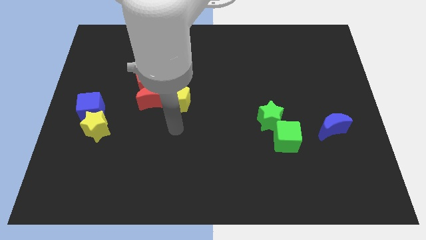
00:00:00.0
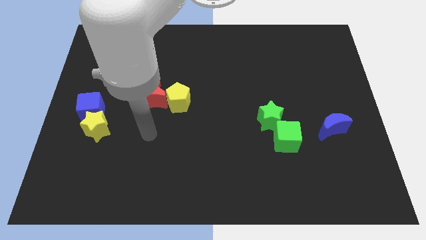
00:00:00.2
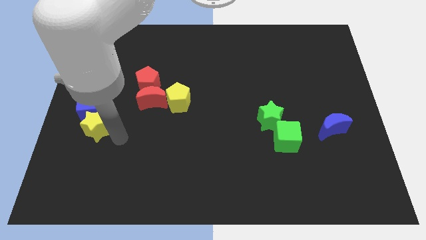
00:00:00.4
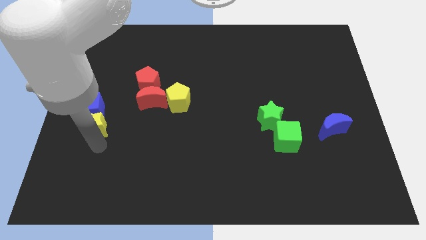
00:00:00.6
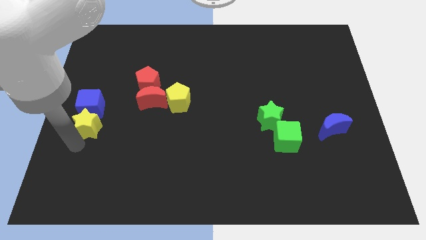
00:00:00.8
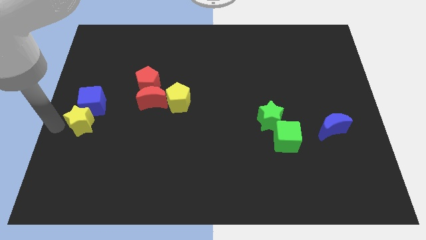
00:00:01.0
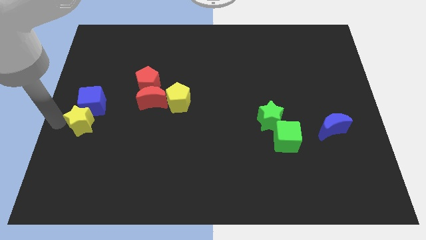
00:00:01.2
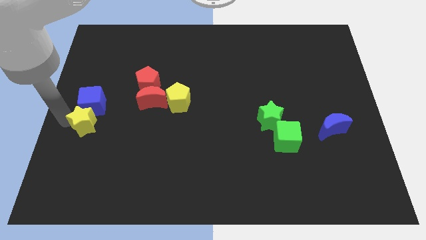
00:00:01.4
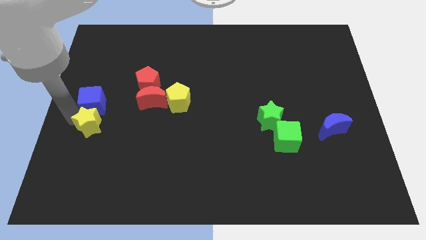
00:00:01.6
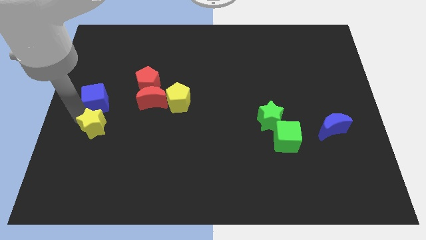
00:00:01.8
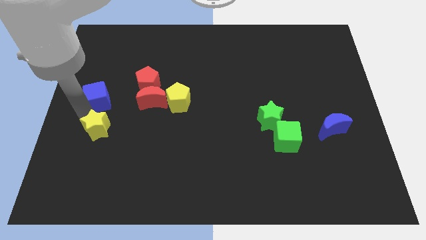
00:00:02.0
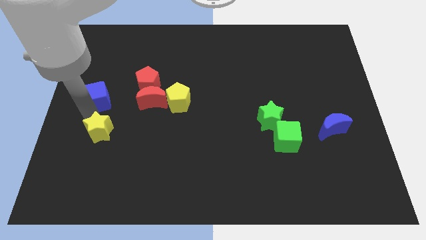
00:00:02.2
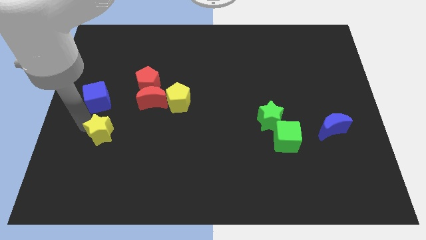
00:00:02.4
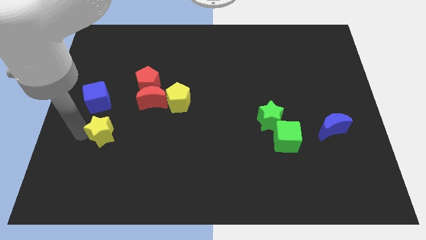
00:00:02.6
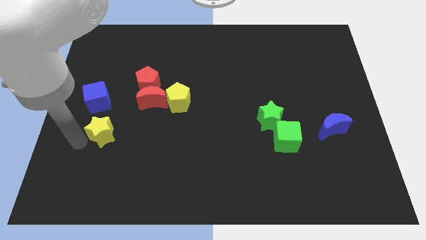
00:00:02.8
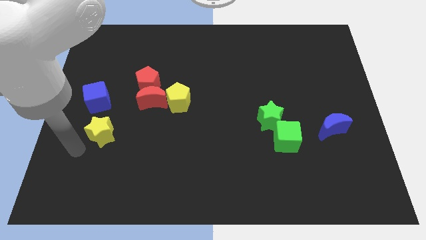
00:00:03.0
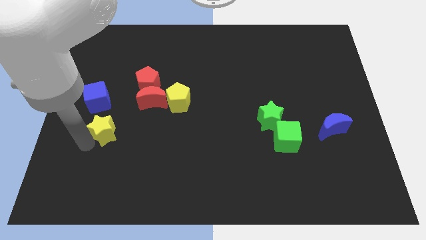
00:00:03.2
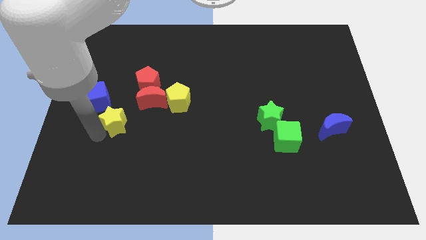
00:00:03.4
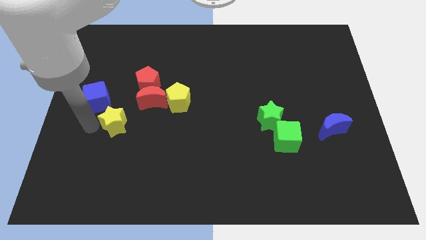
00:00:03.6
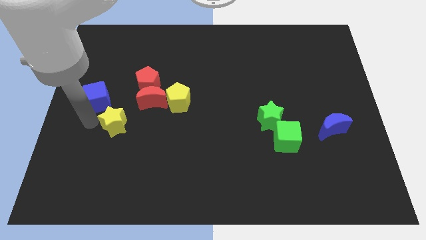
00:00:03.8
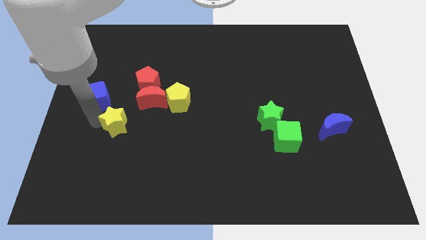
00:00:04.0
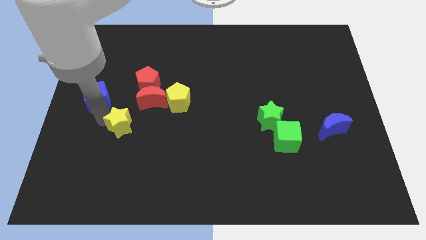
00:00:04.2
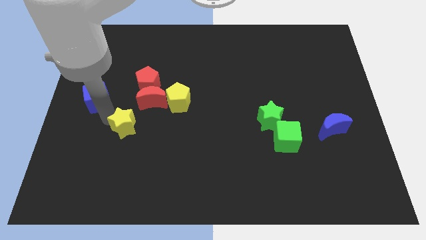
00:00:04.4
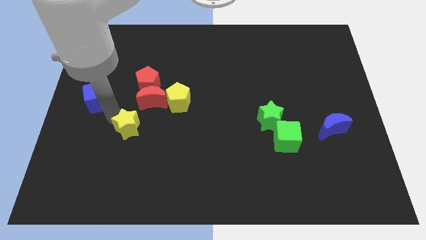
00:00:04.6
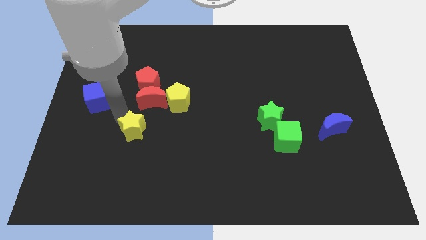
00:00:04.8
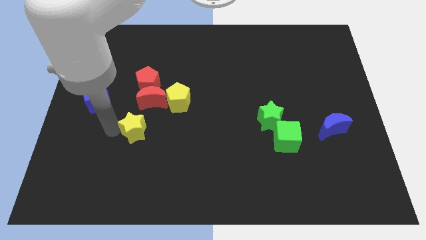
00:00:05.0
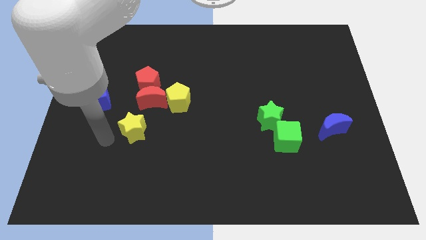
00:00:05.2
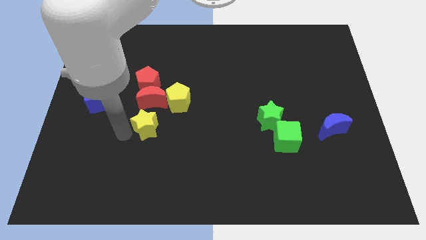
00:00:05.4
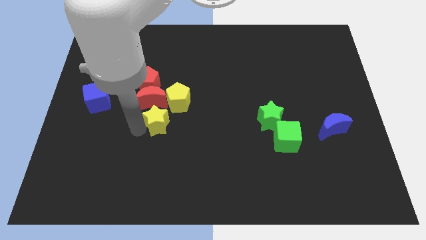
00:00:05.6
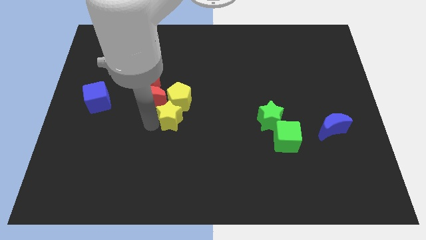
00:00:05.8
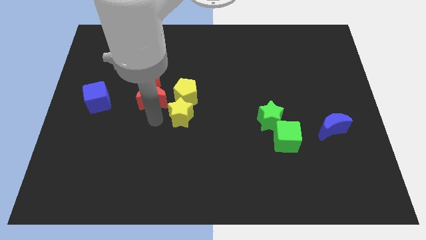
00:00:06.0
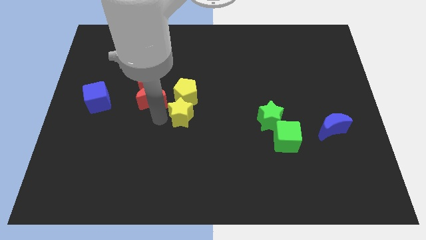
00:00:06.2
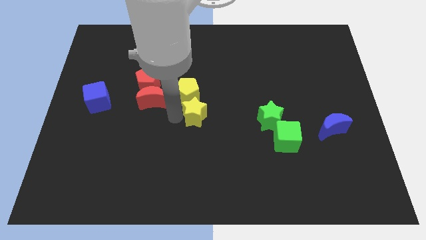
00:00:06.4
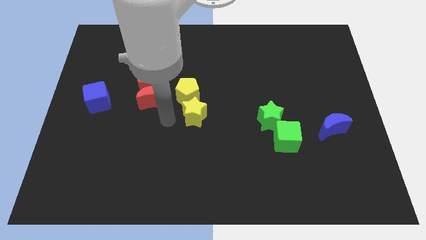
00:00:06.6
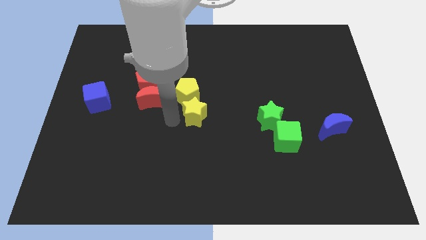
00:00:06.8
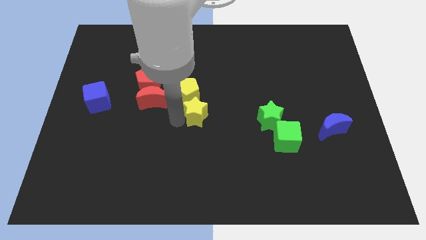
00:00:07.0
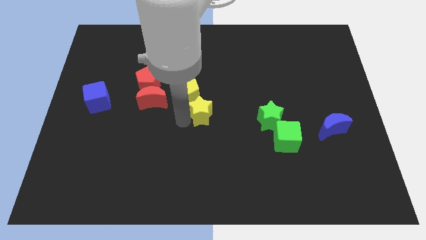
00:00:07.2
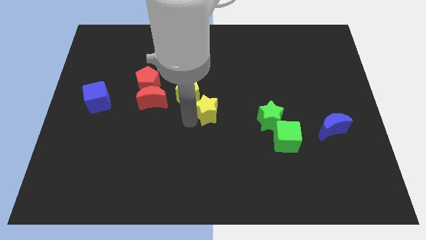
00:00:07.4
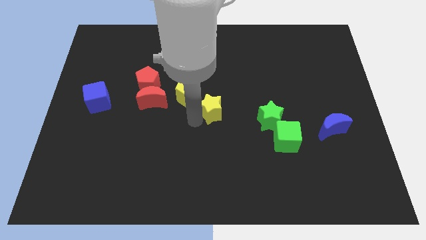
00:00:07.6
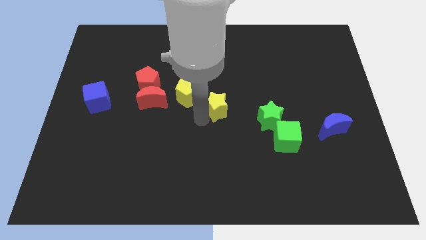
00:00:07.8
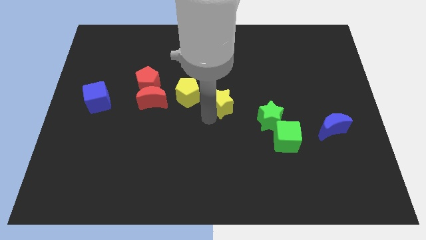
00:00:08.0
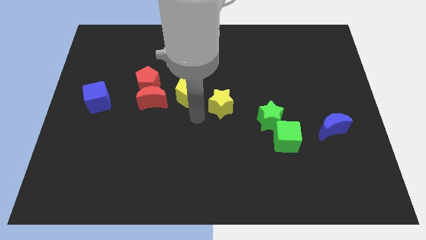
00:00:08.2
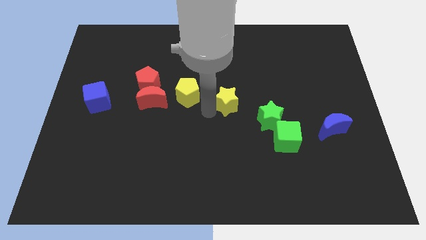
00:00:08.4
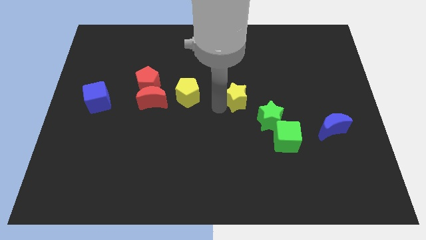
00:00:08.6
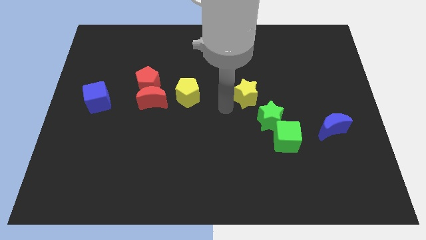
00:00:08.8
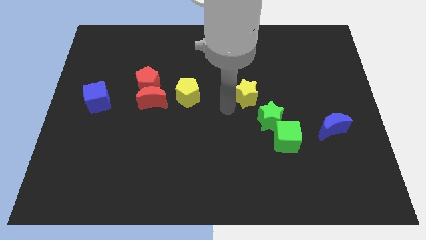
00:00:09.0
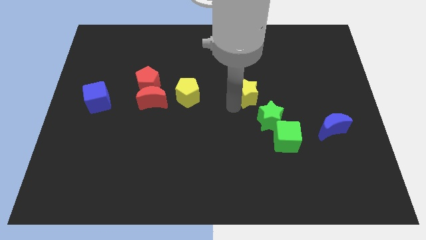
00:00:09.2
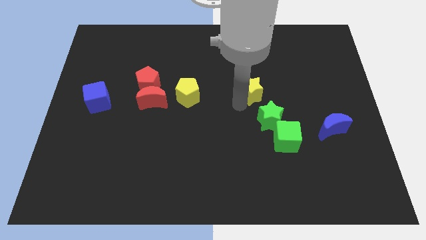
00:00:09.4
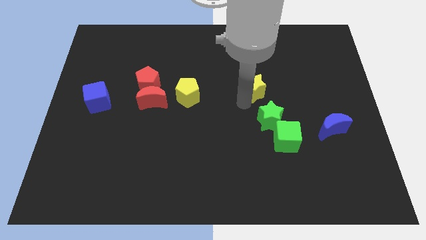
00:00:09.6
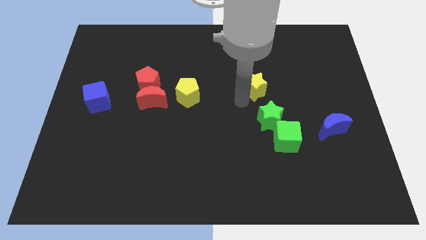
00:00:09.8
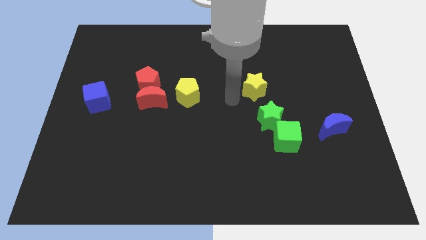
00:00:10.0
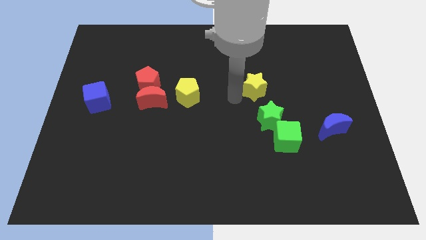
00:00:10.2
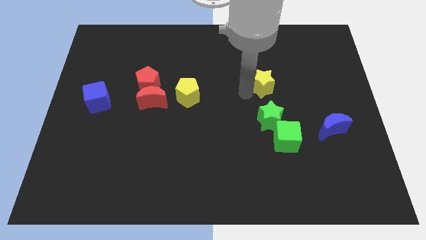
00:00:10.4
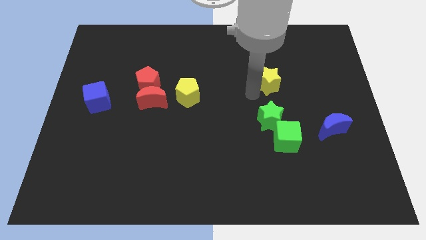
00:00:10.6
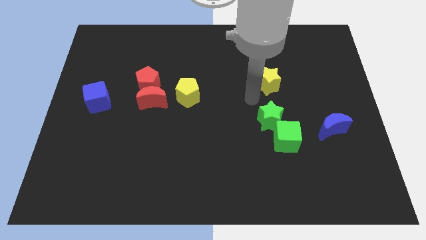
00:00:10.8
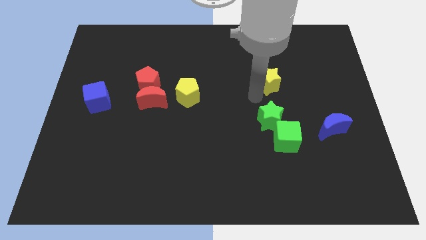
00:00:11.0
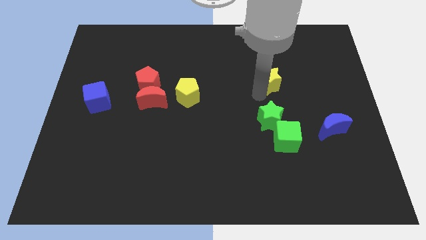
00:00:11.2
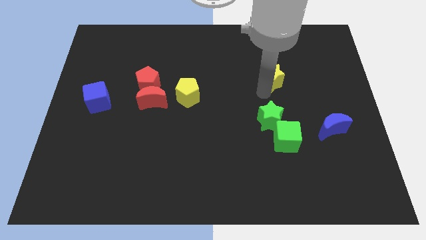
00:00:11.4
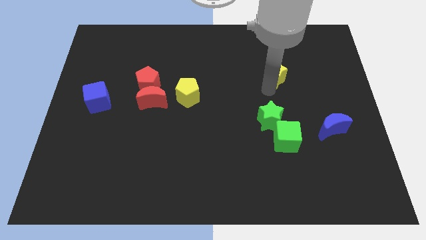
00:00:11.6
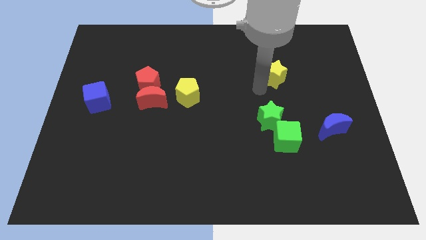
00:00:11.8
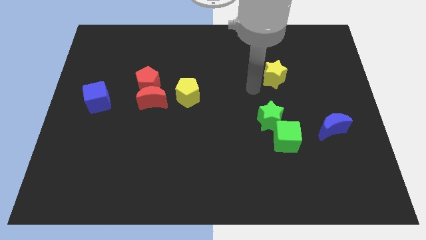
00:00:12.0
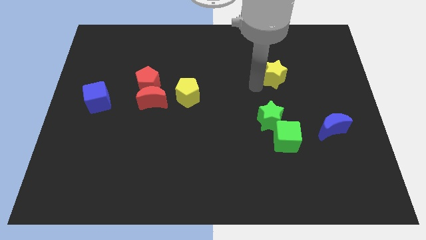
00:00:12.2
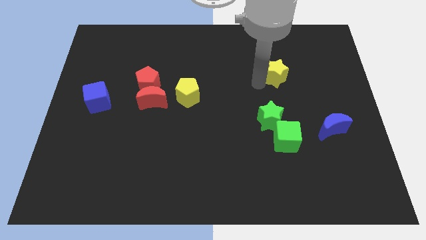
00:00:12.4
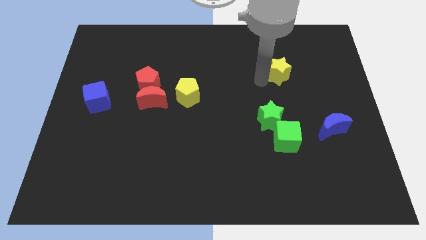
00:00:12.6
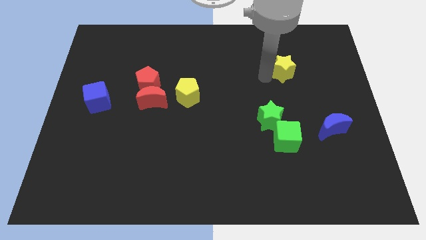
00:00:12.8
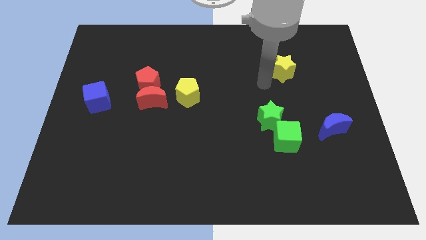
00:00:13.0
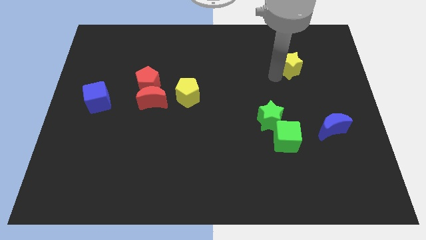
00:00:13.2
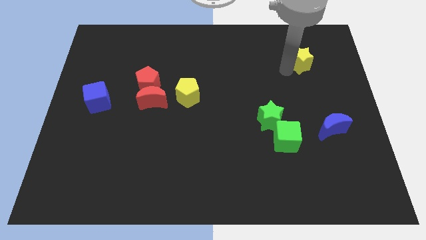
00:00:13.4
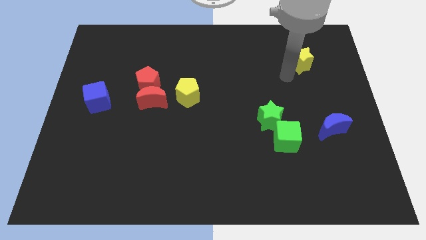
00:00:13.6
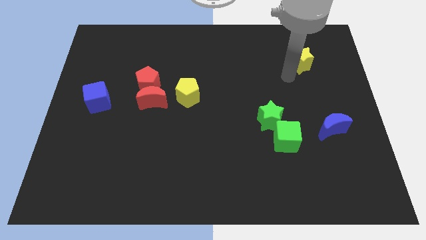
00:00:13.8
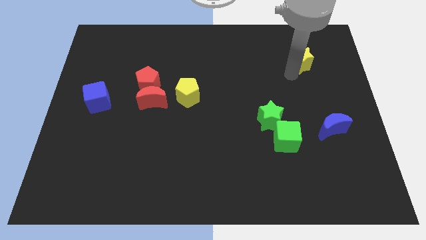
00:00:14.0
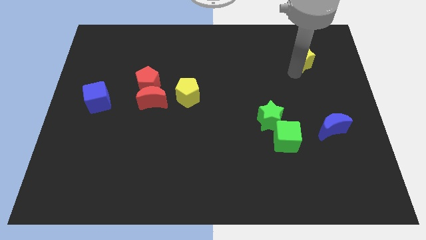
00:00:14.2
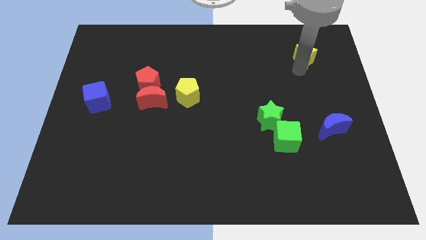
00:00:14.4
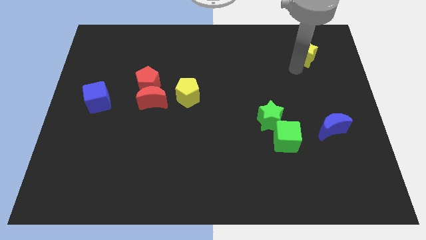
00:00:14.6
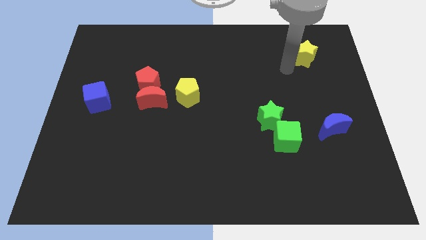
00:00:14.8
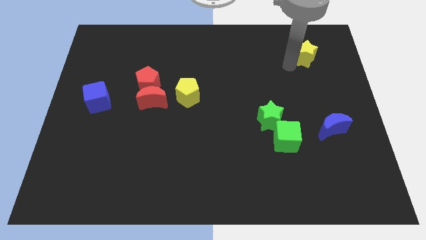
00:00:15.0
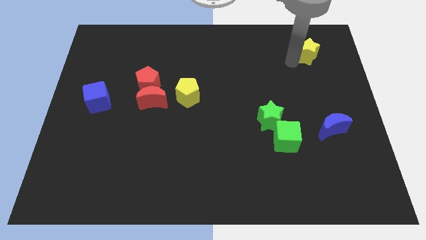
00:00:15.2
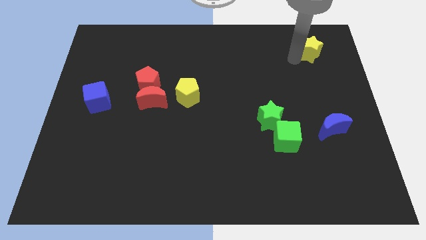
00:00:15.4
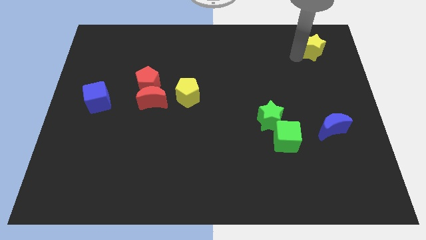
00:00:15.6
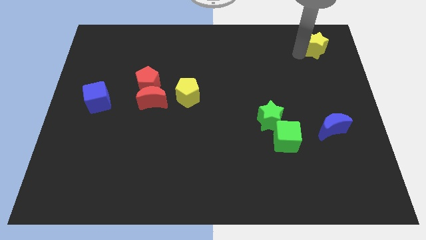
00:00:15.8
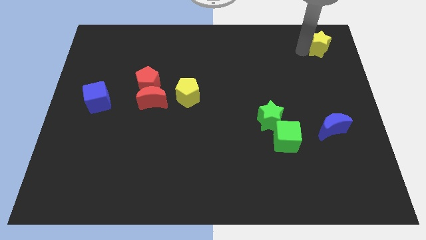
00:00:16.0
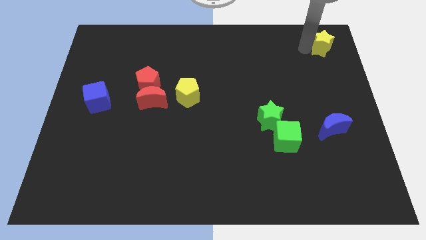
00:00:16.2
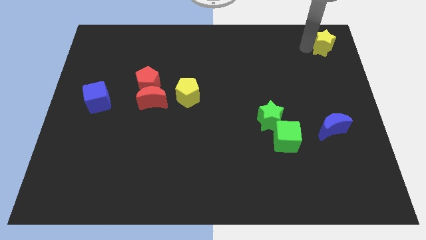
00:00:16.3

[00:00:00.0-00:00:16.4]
move the yellow star to the top right of the board
